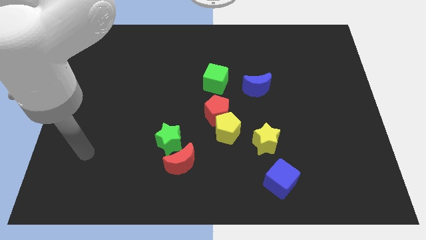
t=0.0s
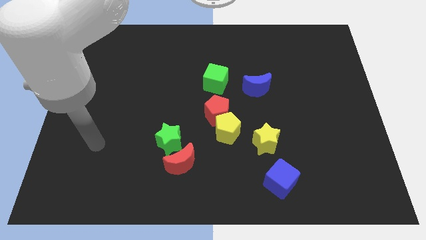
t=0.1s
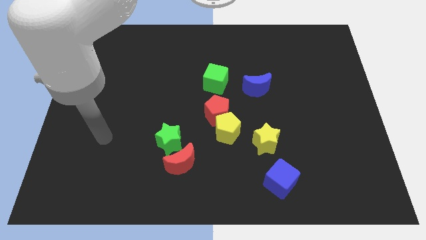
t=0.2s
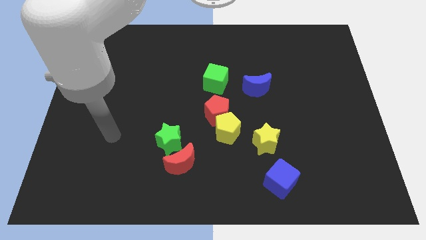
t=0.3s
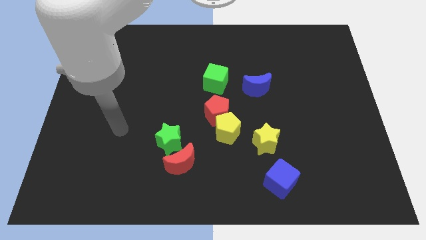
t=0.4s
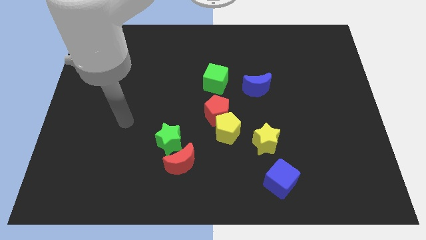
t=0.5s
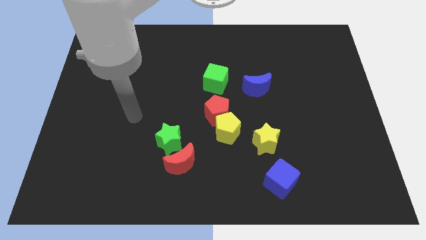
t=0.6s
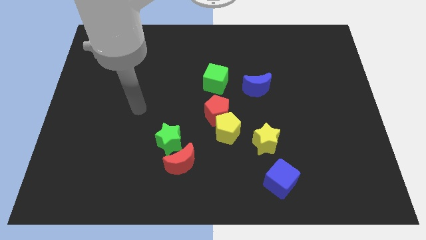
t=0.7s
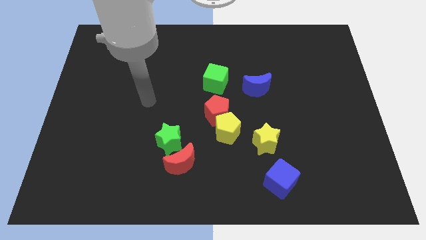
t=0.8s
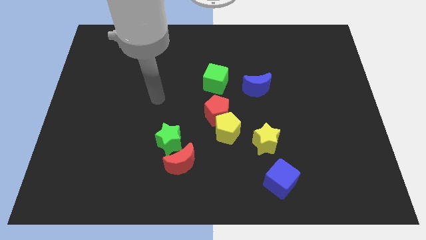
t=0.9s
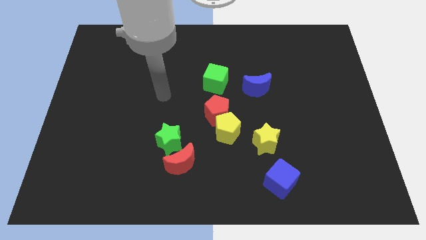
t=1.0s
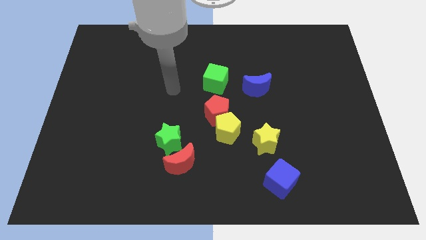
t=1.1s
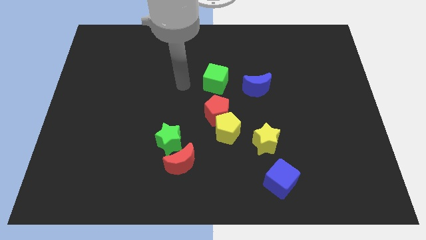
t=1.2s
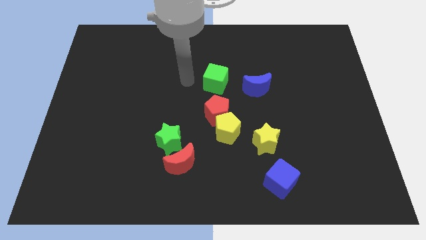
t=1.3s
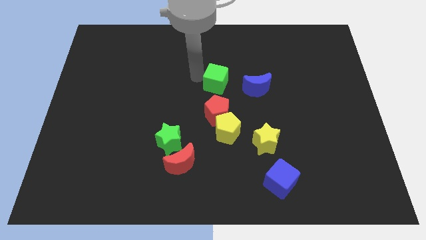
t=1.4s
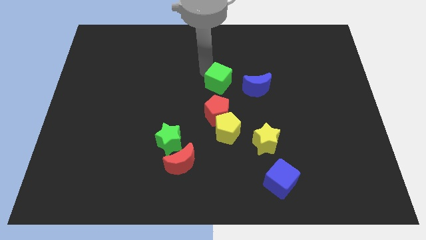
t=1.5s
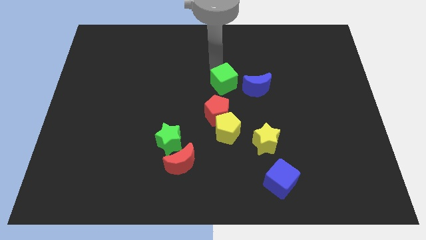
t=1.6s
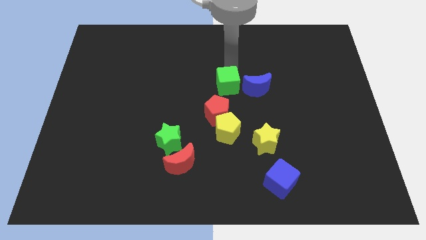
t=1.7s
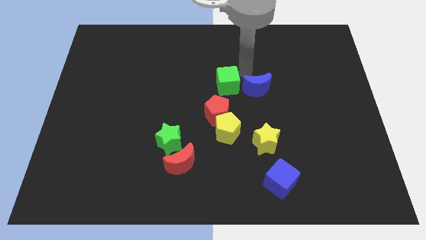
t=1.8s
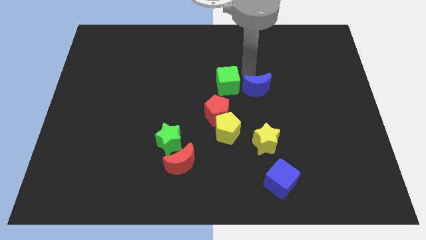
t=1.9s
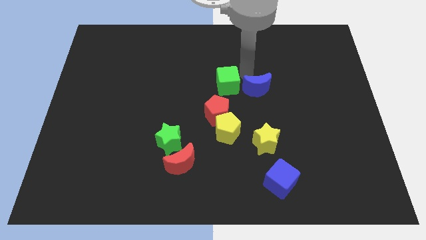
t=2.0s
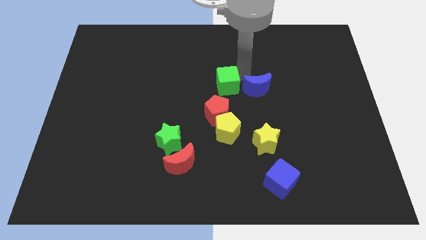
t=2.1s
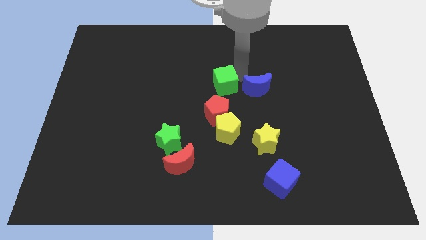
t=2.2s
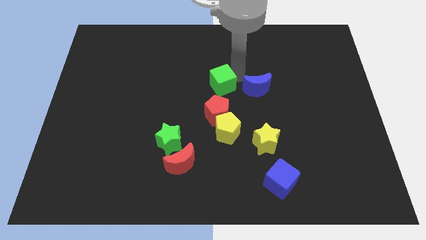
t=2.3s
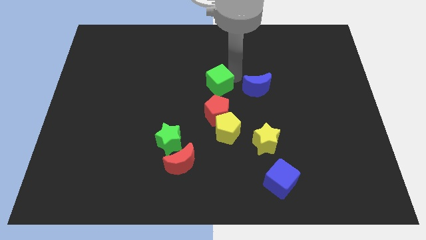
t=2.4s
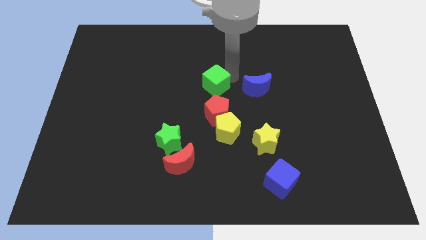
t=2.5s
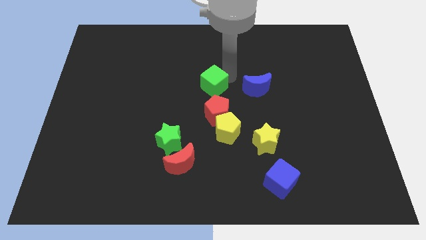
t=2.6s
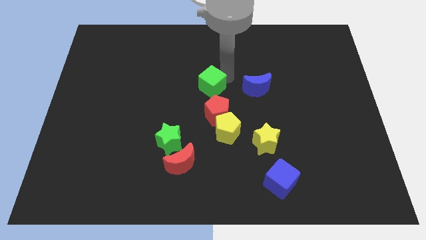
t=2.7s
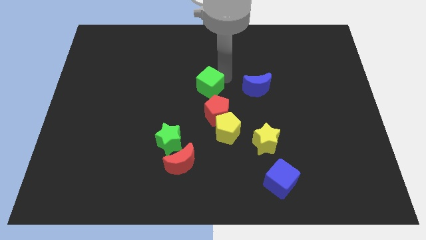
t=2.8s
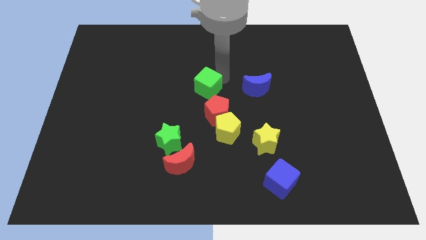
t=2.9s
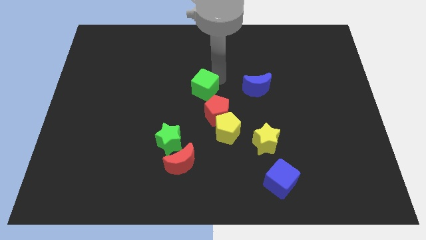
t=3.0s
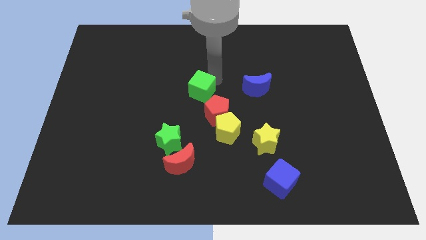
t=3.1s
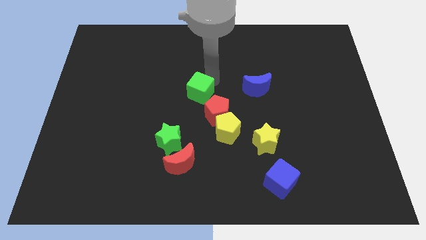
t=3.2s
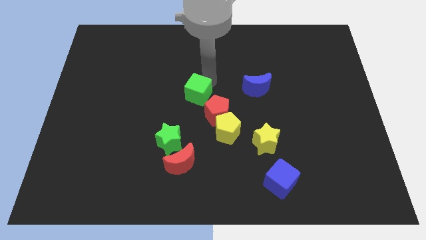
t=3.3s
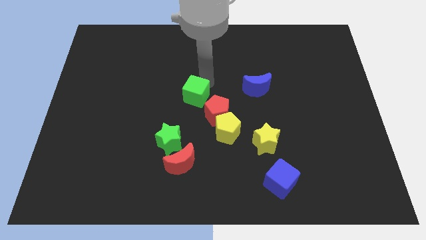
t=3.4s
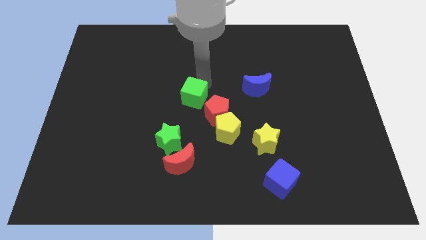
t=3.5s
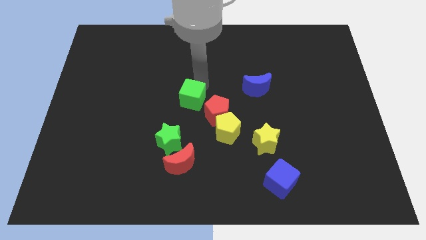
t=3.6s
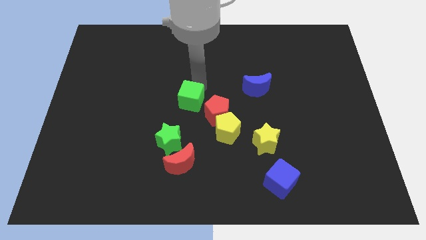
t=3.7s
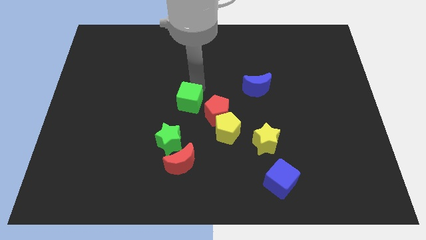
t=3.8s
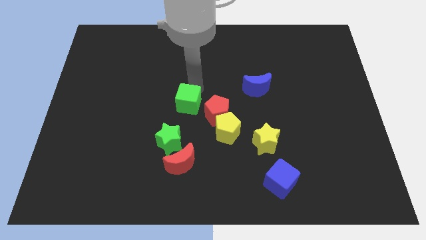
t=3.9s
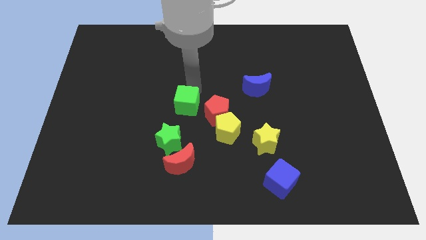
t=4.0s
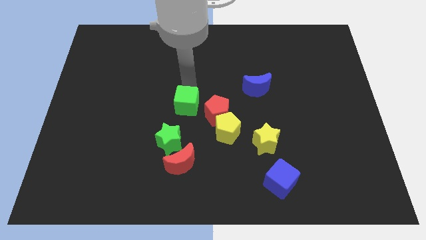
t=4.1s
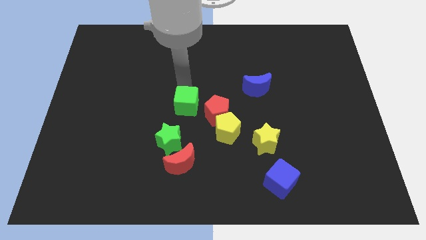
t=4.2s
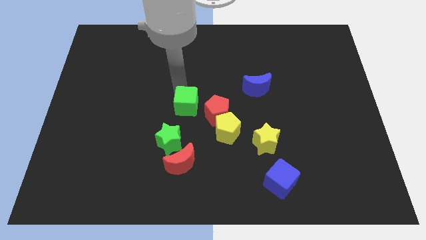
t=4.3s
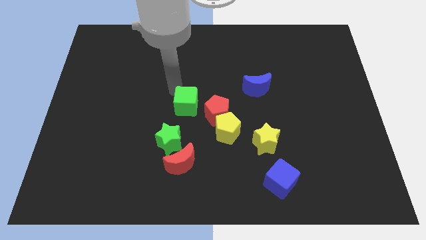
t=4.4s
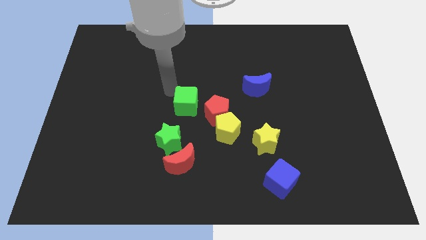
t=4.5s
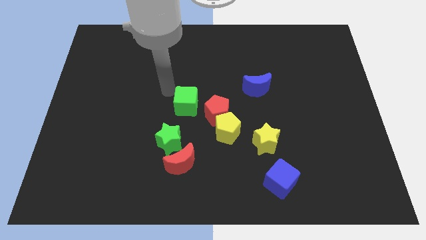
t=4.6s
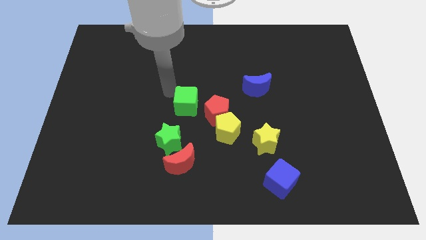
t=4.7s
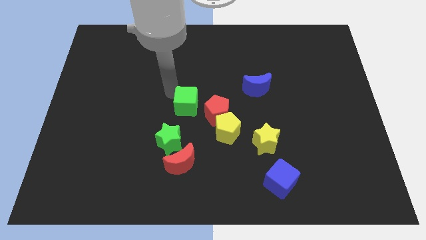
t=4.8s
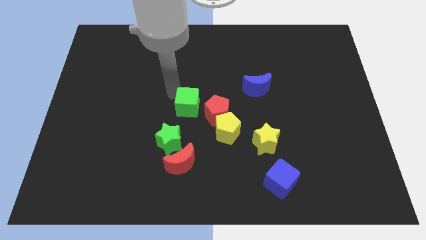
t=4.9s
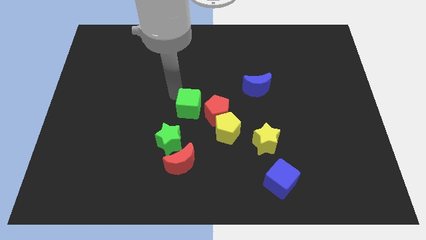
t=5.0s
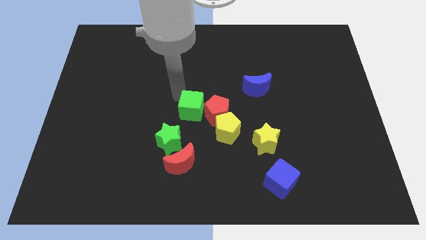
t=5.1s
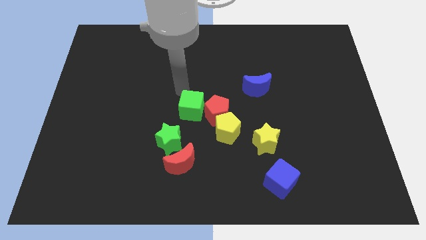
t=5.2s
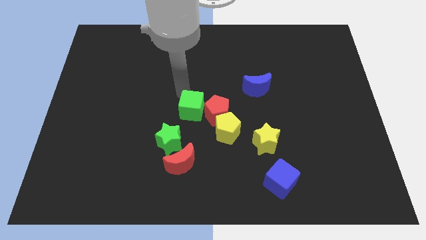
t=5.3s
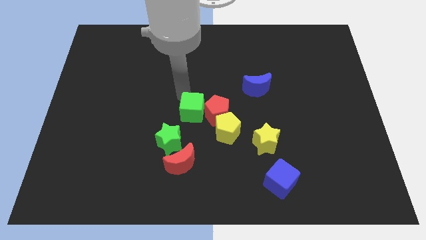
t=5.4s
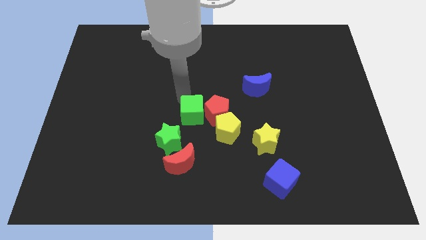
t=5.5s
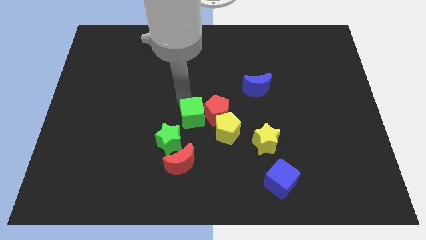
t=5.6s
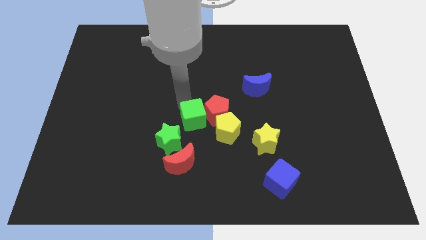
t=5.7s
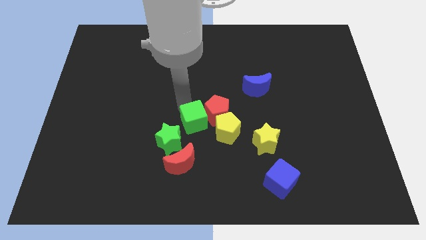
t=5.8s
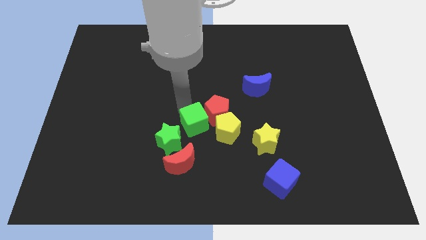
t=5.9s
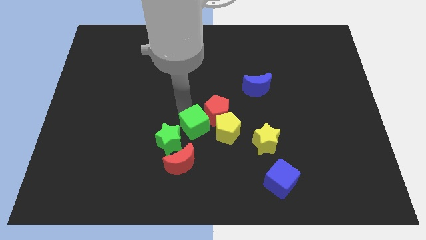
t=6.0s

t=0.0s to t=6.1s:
put the green cube to the right side of the green star

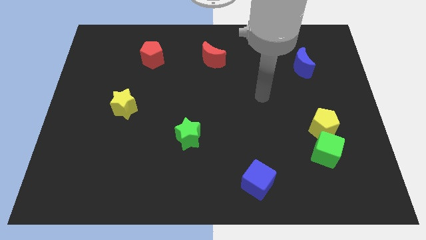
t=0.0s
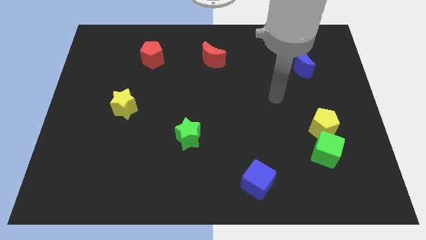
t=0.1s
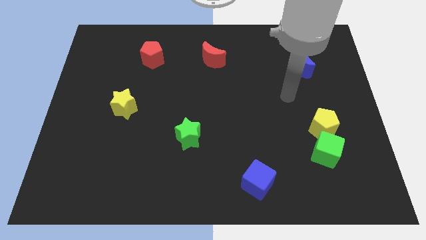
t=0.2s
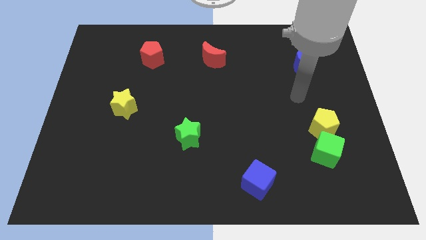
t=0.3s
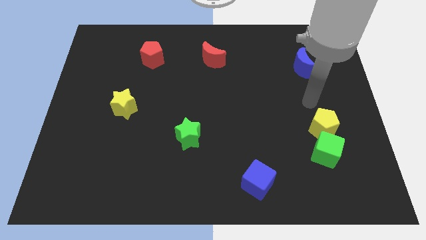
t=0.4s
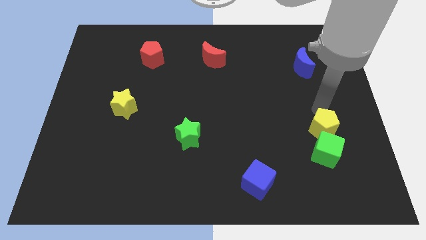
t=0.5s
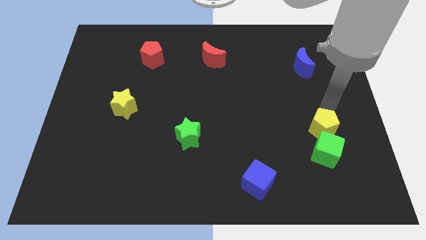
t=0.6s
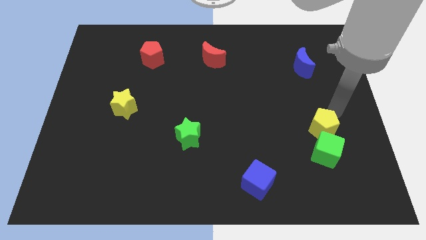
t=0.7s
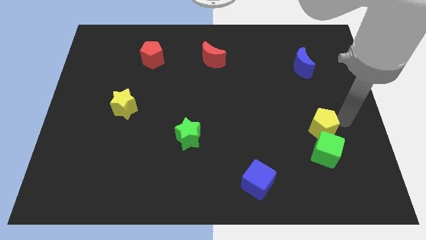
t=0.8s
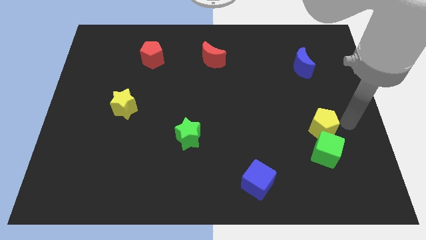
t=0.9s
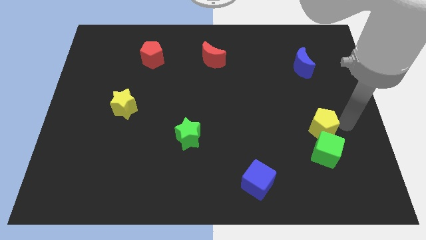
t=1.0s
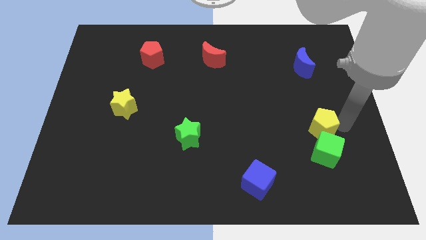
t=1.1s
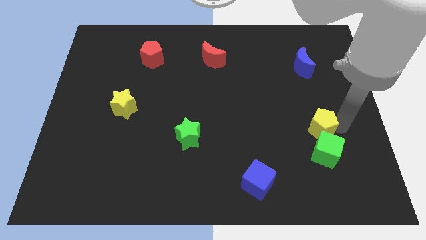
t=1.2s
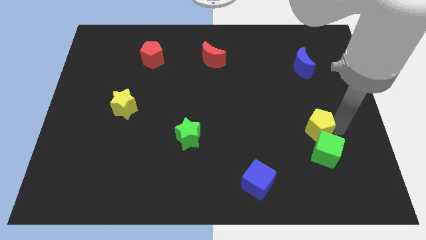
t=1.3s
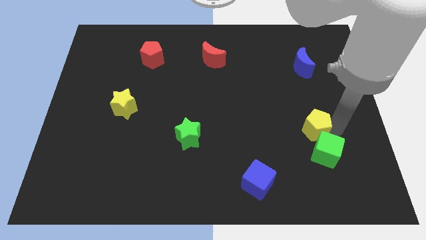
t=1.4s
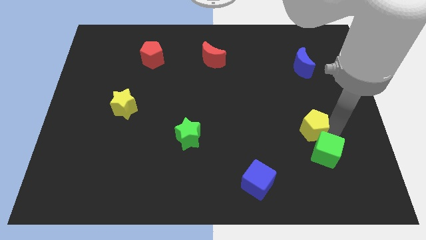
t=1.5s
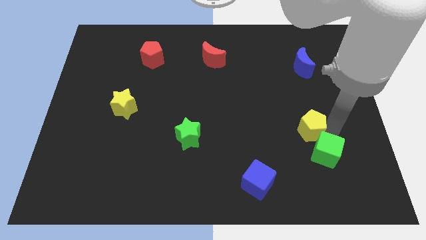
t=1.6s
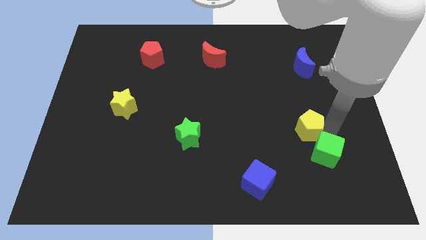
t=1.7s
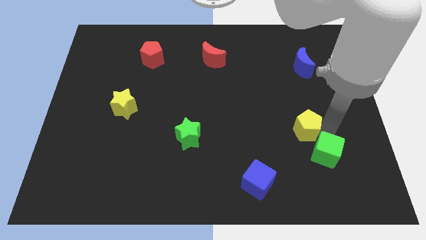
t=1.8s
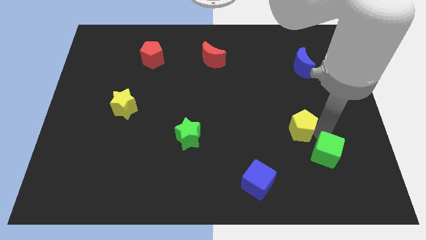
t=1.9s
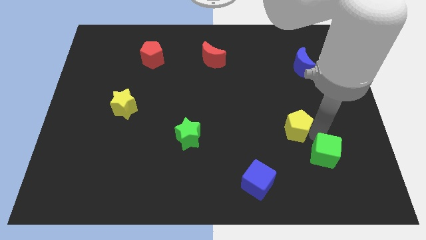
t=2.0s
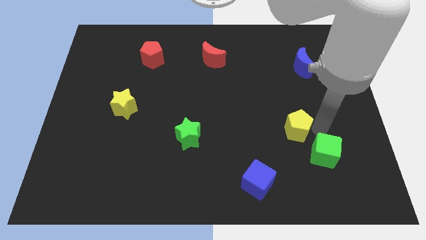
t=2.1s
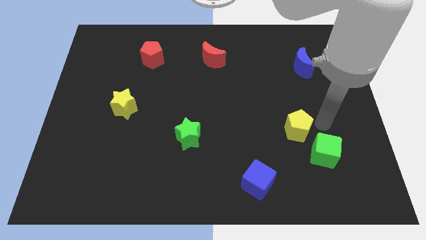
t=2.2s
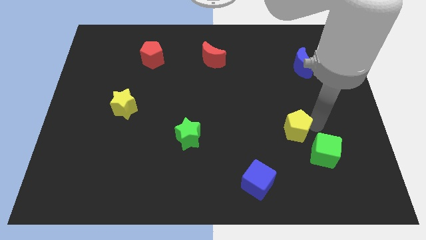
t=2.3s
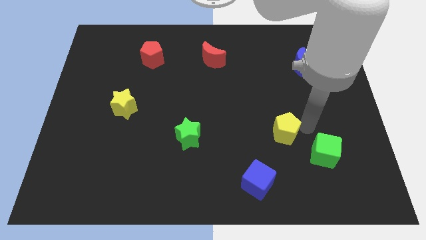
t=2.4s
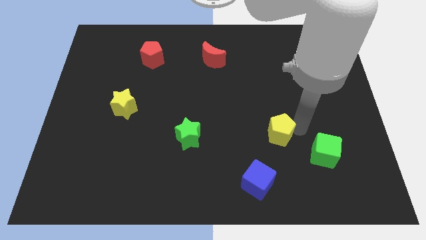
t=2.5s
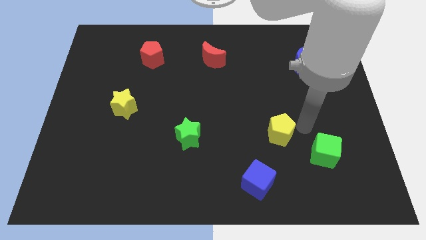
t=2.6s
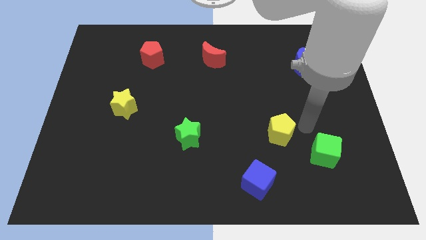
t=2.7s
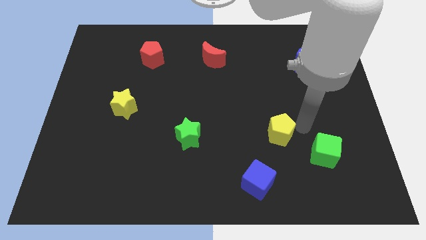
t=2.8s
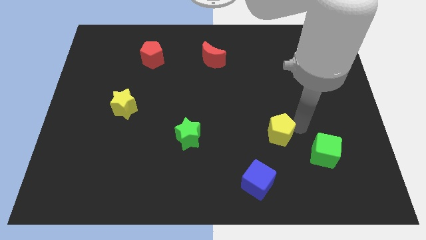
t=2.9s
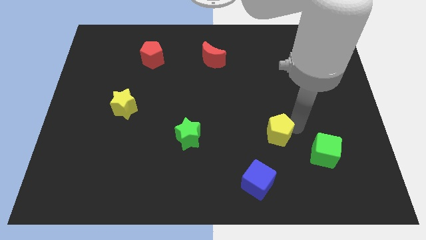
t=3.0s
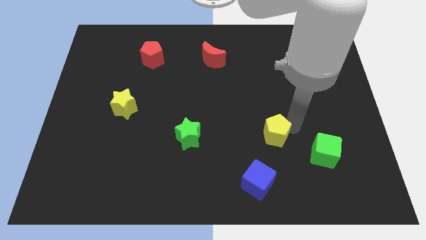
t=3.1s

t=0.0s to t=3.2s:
put the yellow pentagon above the blue cube
